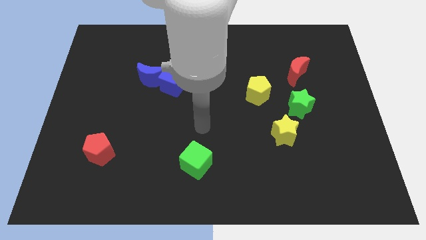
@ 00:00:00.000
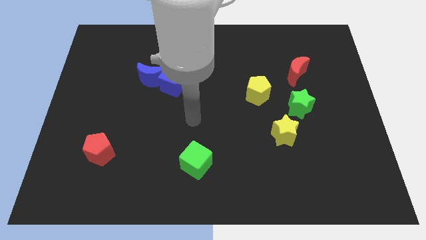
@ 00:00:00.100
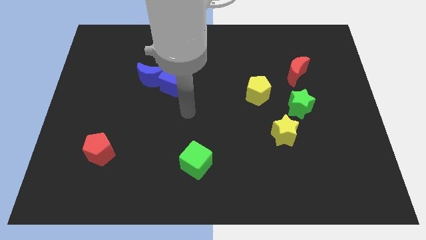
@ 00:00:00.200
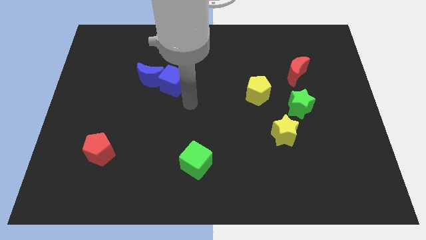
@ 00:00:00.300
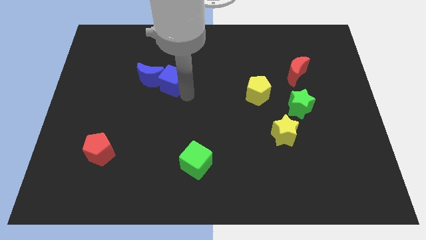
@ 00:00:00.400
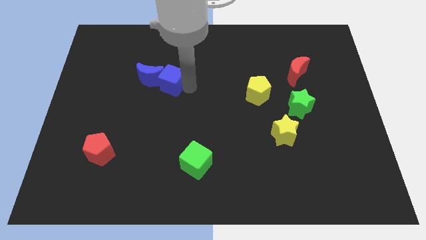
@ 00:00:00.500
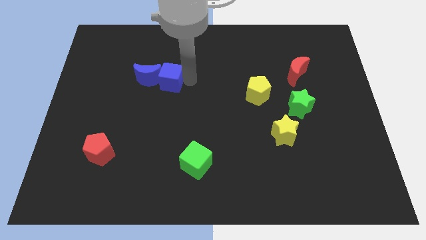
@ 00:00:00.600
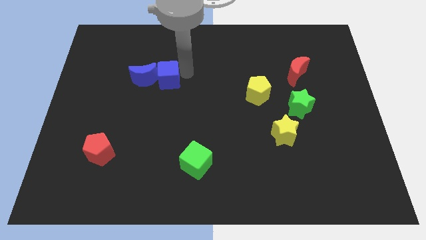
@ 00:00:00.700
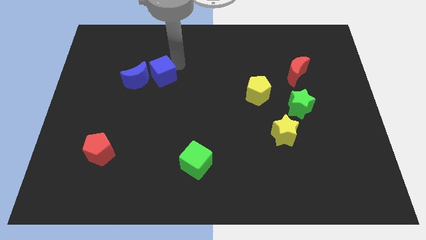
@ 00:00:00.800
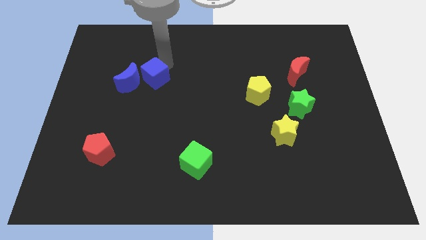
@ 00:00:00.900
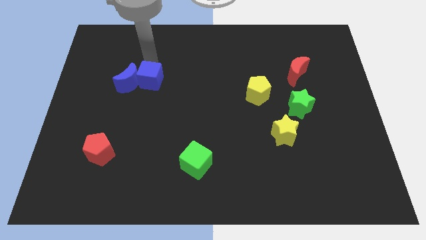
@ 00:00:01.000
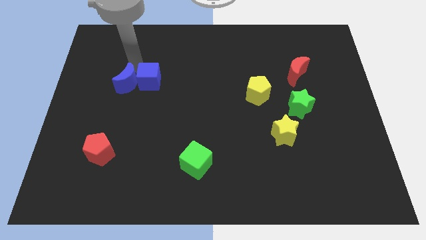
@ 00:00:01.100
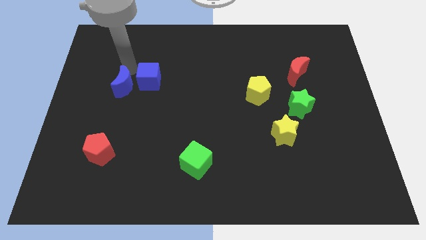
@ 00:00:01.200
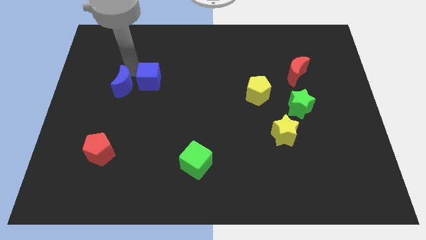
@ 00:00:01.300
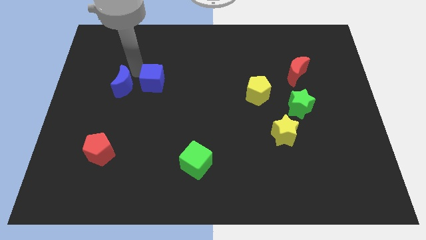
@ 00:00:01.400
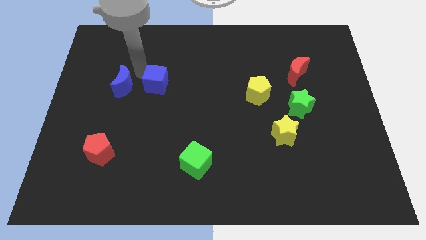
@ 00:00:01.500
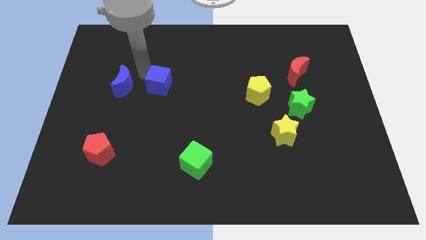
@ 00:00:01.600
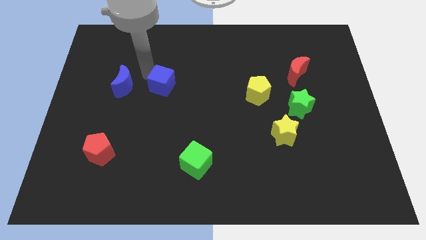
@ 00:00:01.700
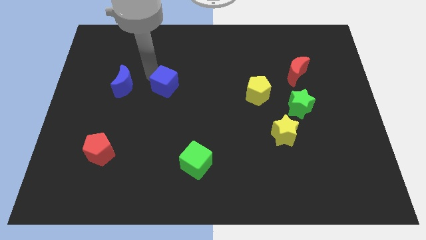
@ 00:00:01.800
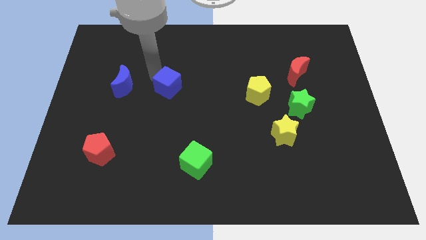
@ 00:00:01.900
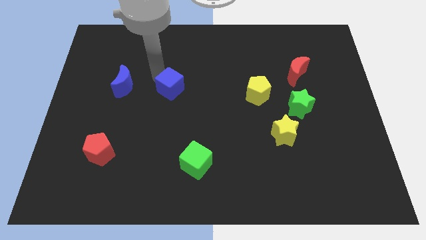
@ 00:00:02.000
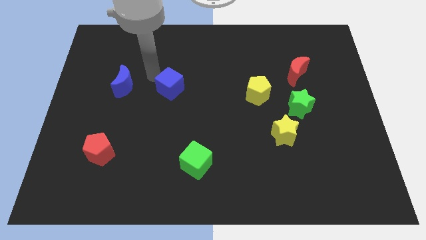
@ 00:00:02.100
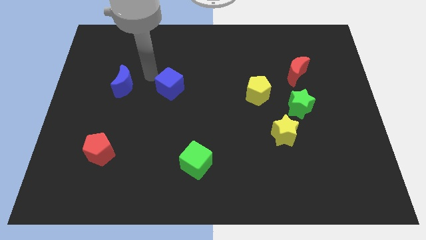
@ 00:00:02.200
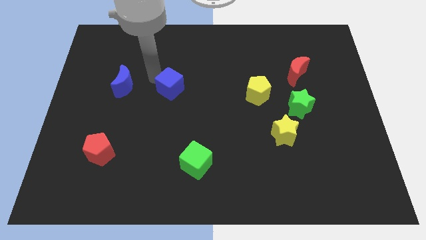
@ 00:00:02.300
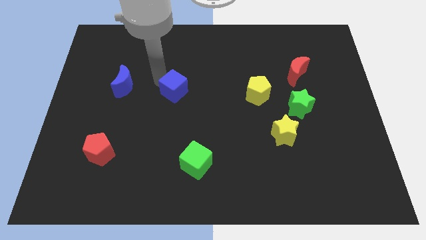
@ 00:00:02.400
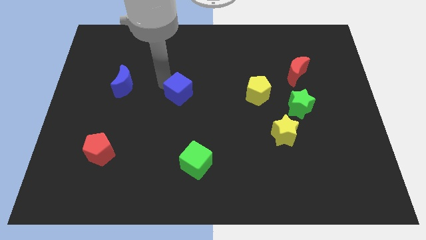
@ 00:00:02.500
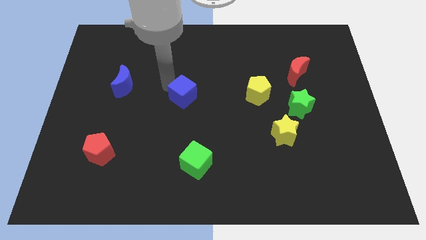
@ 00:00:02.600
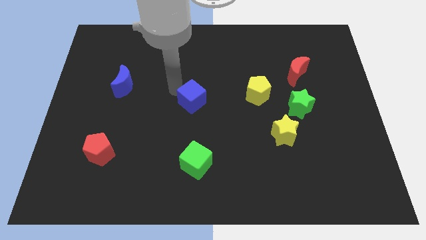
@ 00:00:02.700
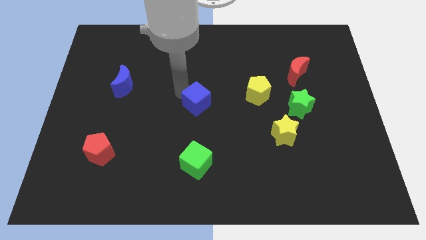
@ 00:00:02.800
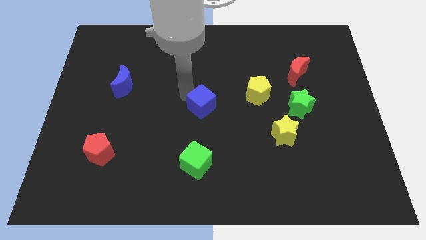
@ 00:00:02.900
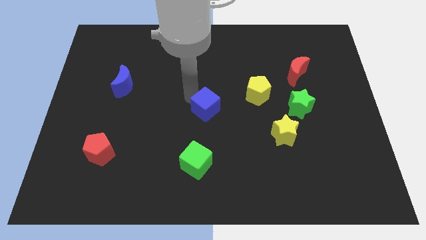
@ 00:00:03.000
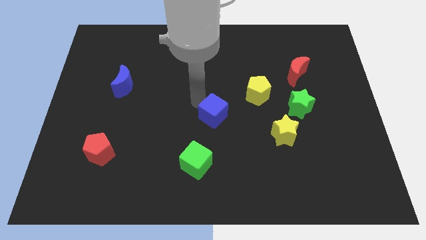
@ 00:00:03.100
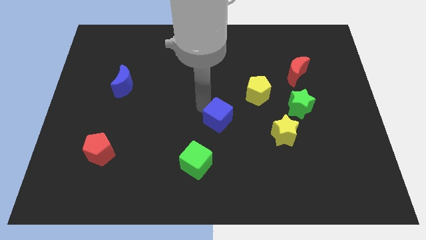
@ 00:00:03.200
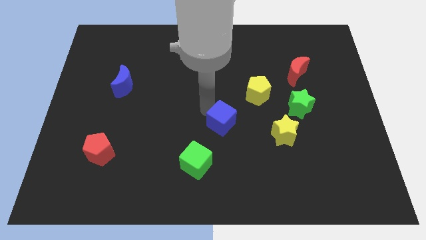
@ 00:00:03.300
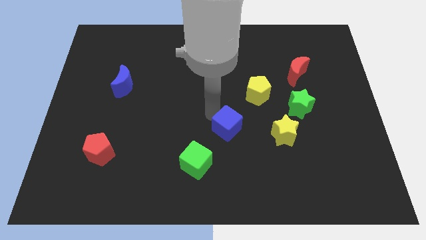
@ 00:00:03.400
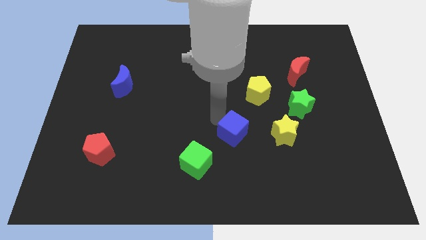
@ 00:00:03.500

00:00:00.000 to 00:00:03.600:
move the blue cube downwards and to the right

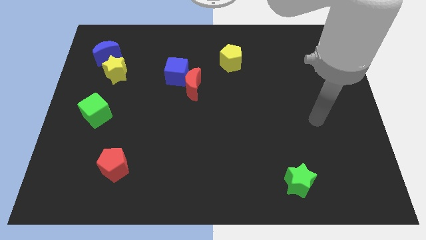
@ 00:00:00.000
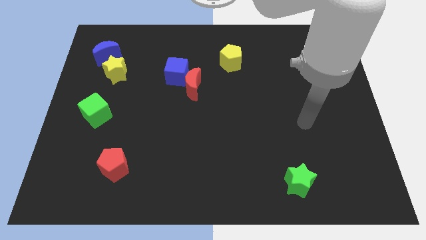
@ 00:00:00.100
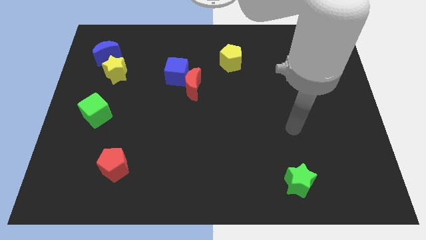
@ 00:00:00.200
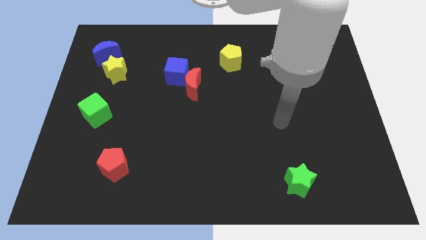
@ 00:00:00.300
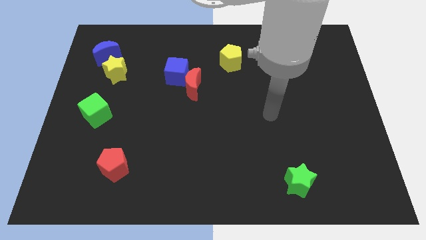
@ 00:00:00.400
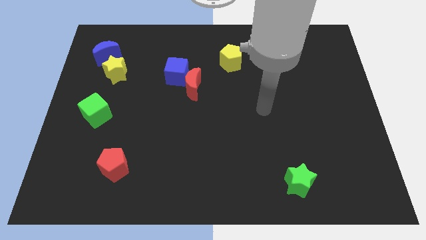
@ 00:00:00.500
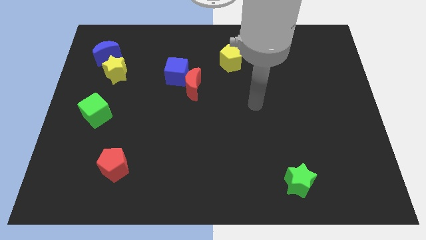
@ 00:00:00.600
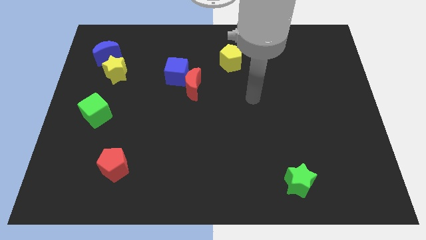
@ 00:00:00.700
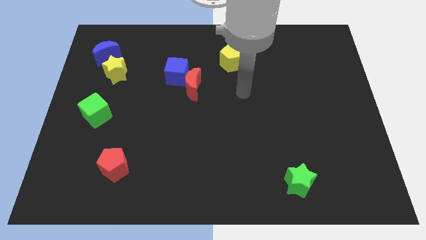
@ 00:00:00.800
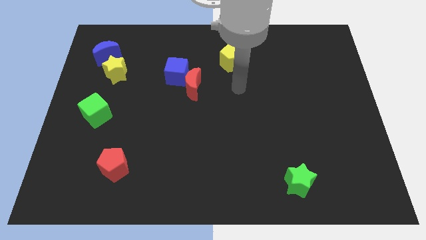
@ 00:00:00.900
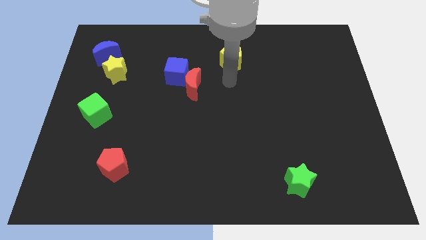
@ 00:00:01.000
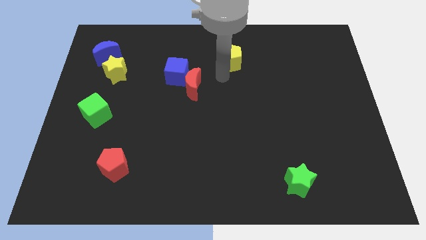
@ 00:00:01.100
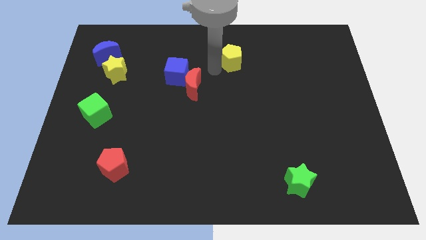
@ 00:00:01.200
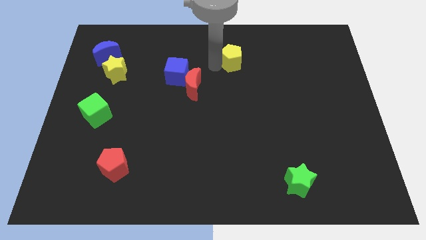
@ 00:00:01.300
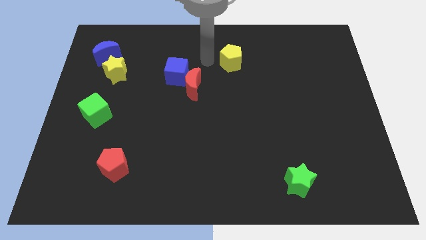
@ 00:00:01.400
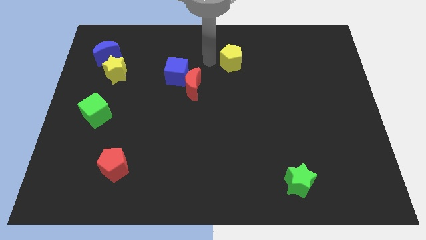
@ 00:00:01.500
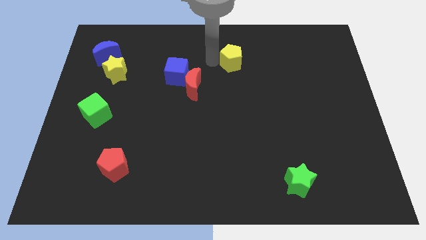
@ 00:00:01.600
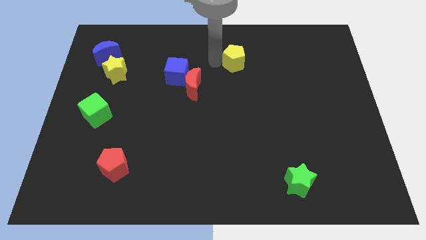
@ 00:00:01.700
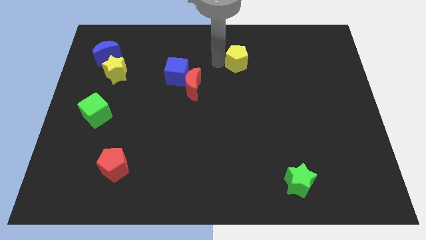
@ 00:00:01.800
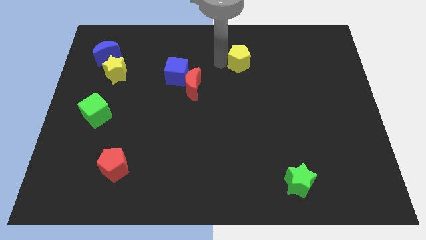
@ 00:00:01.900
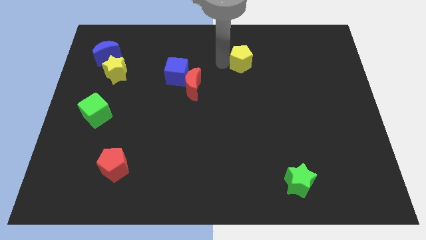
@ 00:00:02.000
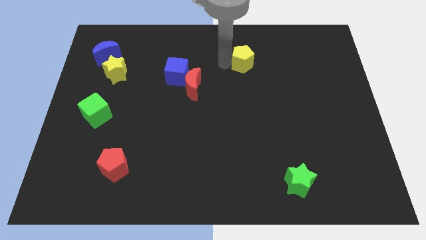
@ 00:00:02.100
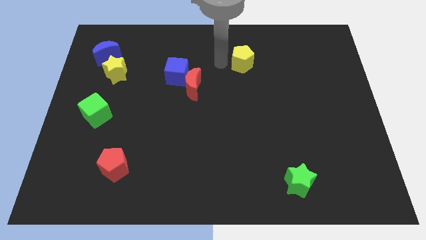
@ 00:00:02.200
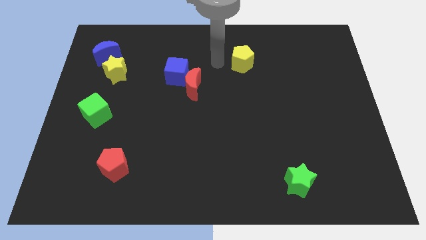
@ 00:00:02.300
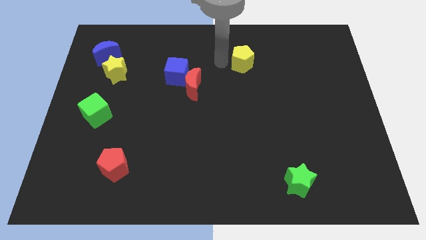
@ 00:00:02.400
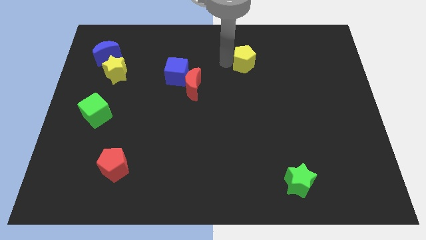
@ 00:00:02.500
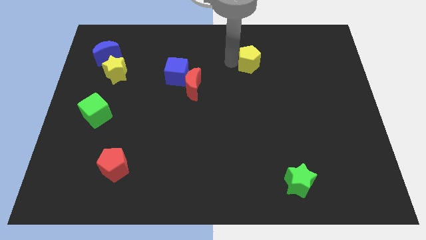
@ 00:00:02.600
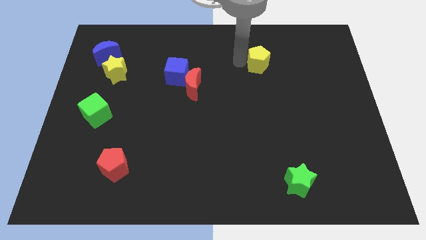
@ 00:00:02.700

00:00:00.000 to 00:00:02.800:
slightly slide the yellow pentagon right

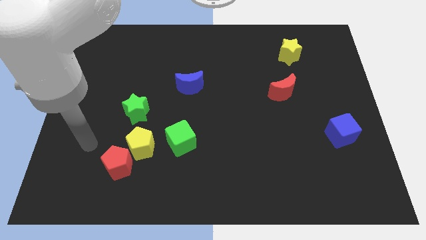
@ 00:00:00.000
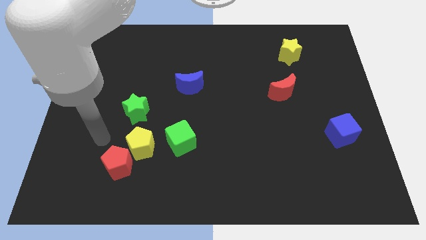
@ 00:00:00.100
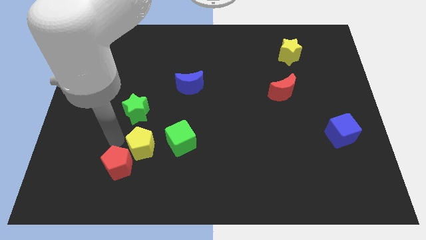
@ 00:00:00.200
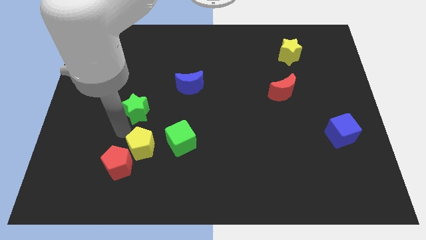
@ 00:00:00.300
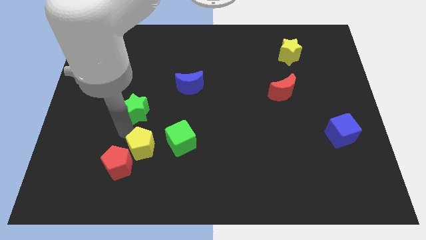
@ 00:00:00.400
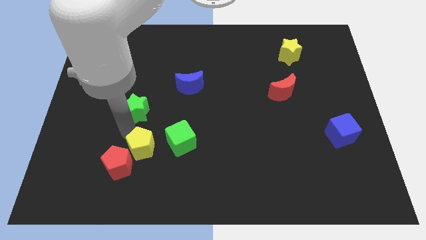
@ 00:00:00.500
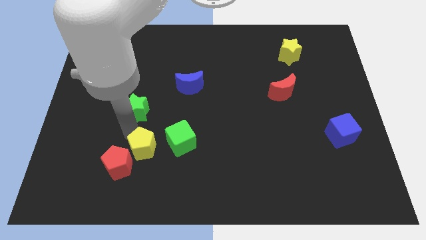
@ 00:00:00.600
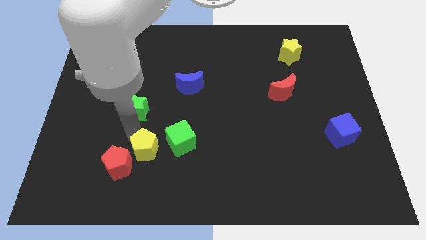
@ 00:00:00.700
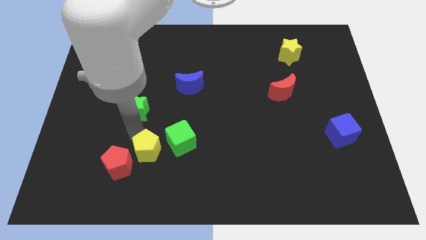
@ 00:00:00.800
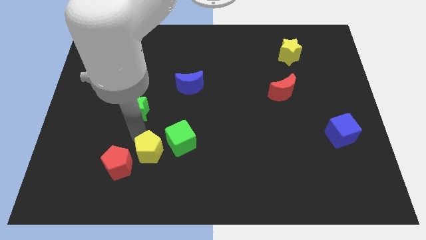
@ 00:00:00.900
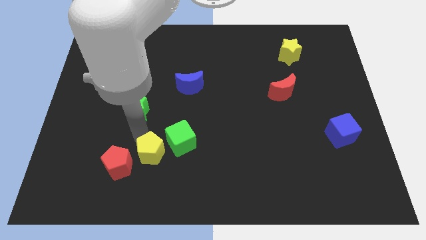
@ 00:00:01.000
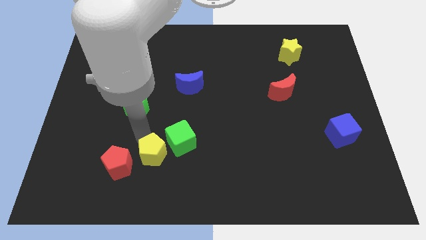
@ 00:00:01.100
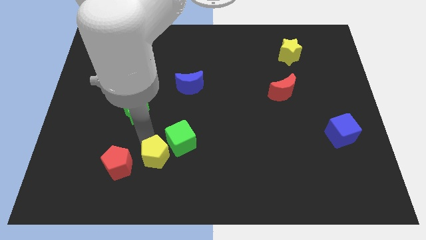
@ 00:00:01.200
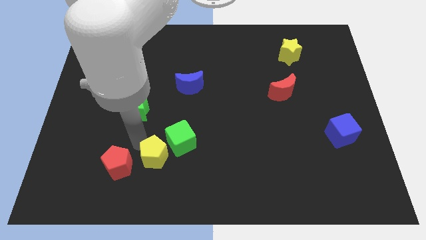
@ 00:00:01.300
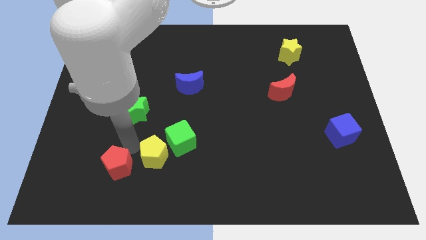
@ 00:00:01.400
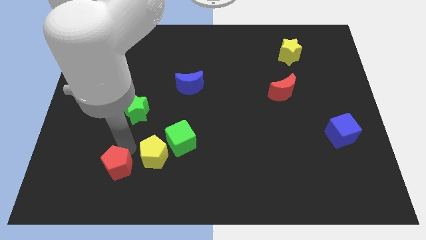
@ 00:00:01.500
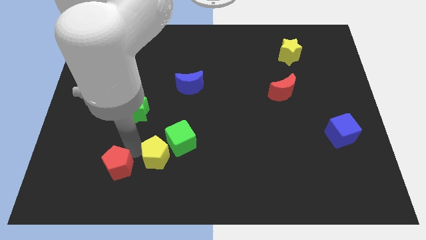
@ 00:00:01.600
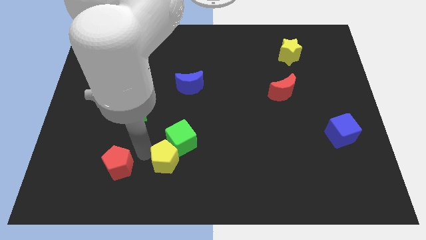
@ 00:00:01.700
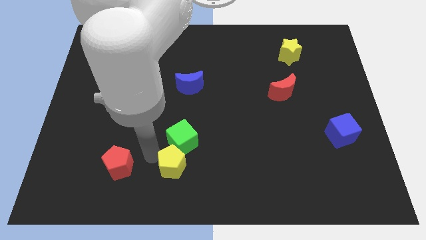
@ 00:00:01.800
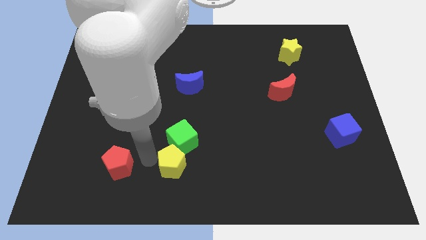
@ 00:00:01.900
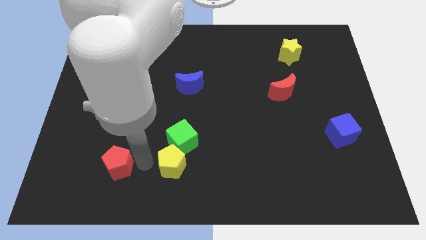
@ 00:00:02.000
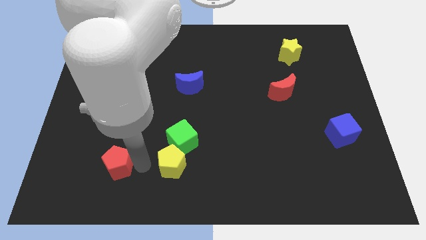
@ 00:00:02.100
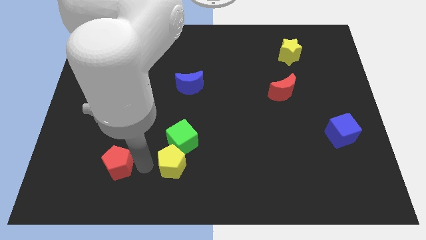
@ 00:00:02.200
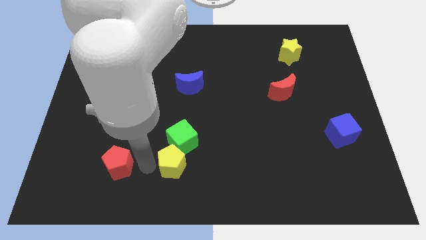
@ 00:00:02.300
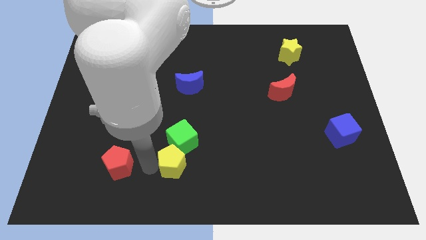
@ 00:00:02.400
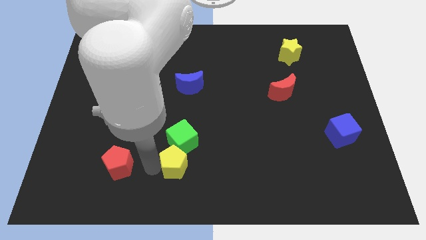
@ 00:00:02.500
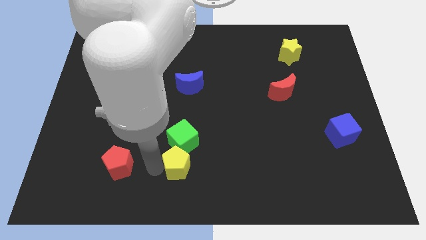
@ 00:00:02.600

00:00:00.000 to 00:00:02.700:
slightly push the yellow pentagon right
